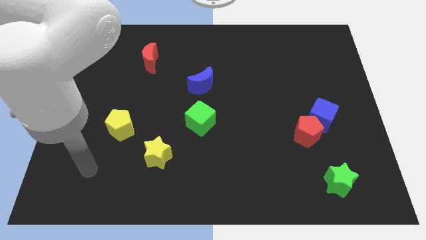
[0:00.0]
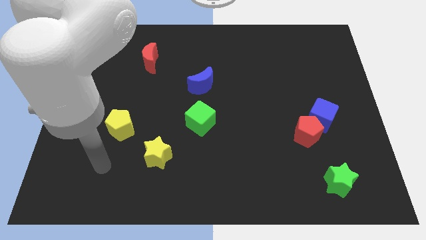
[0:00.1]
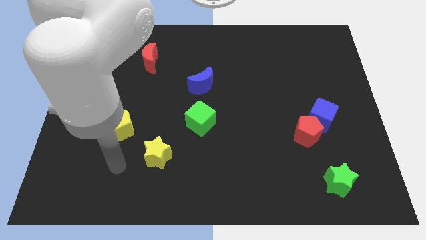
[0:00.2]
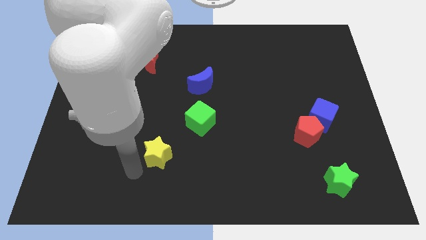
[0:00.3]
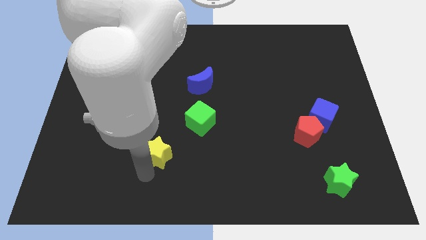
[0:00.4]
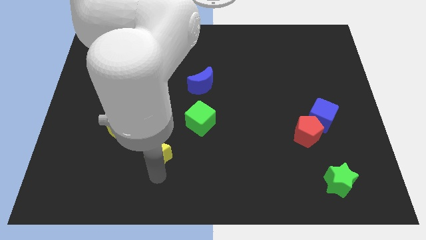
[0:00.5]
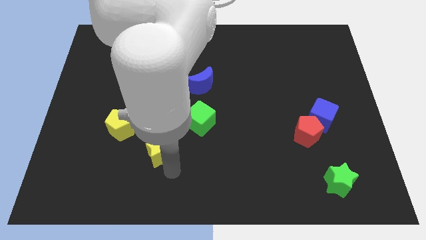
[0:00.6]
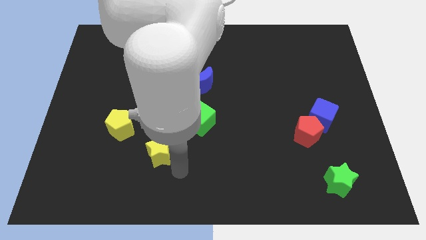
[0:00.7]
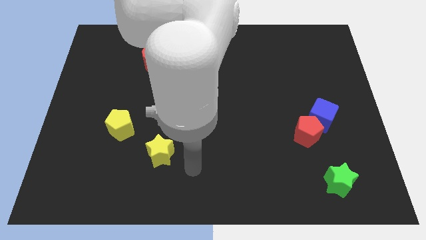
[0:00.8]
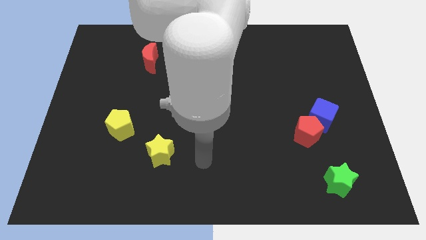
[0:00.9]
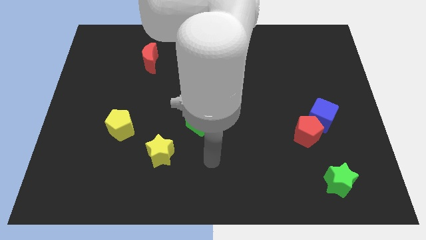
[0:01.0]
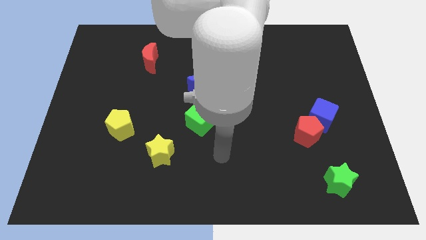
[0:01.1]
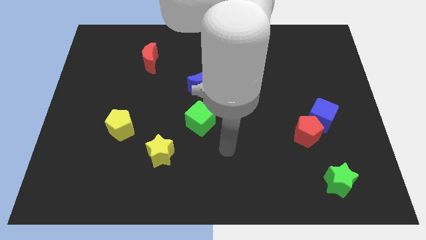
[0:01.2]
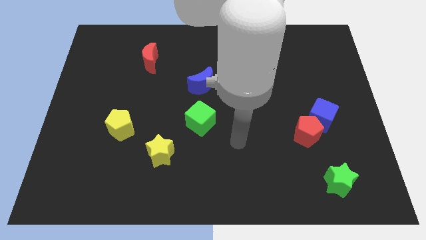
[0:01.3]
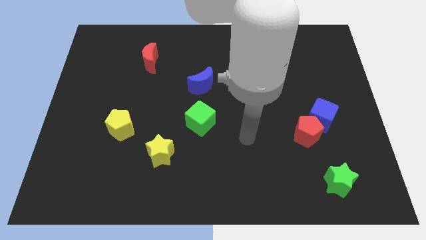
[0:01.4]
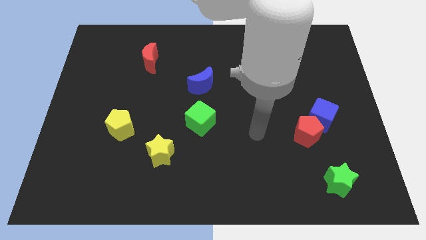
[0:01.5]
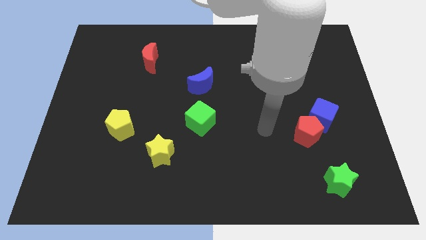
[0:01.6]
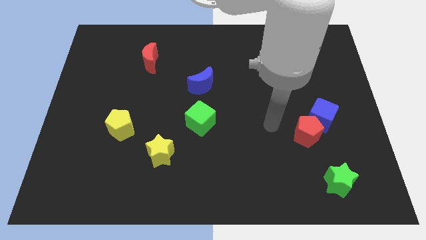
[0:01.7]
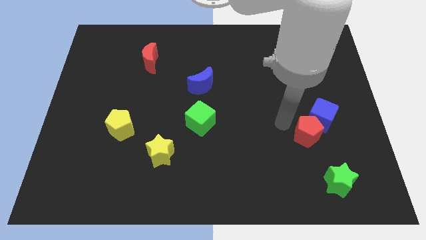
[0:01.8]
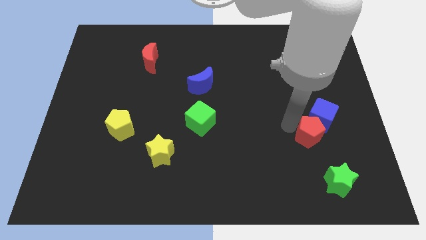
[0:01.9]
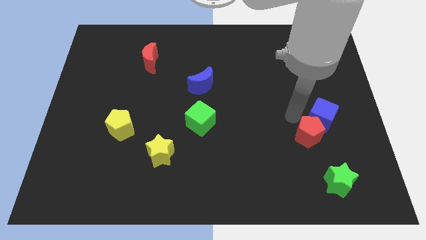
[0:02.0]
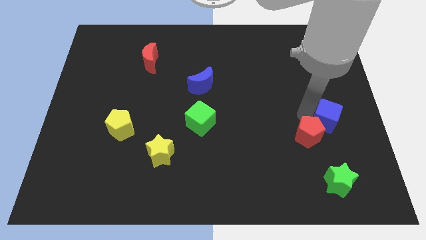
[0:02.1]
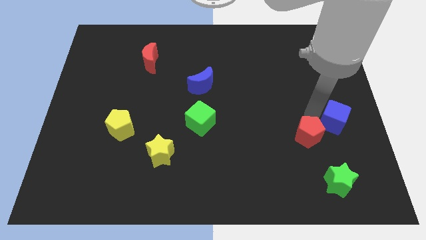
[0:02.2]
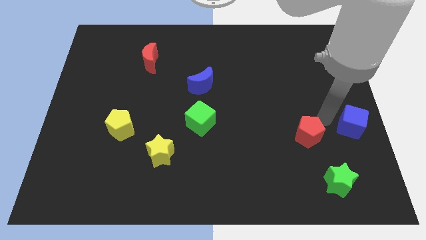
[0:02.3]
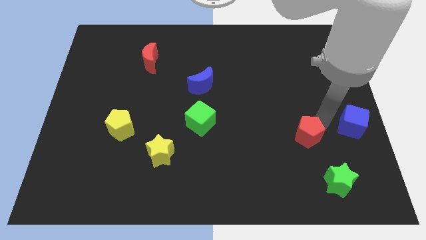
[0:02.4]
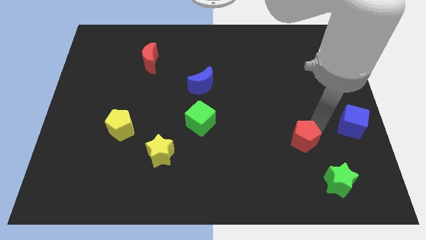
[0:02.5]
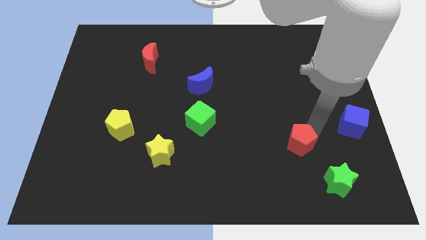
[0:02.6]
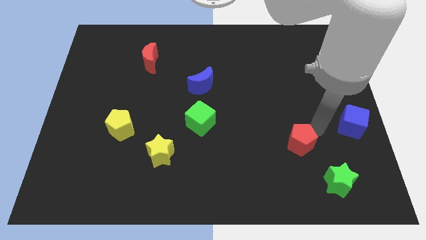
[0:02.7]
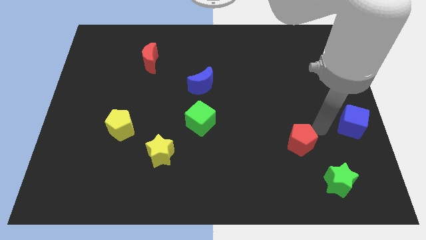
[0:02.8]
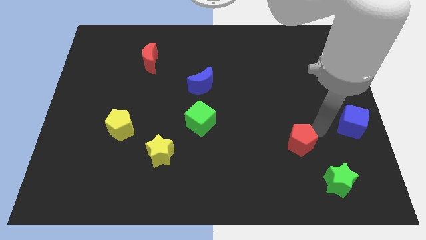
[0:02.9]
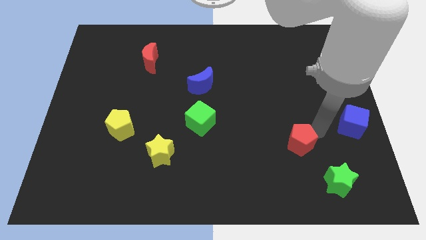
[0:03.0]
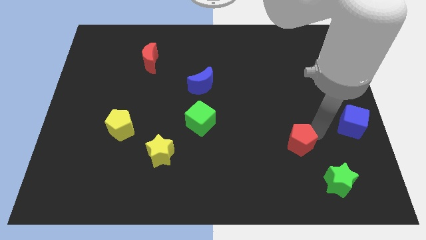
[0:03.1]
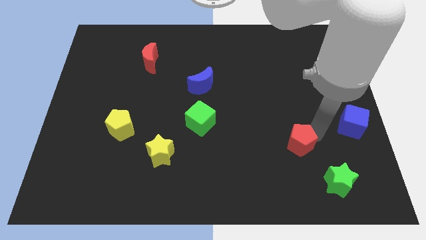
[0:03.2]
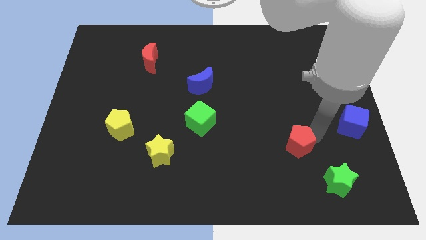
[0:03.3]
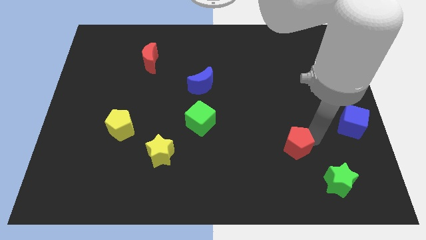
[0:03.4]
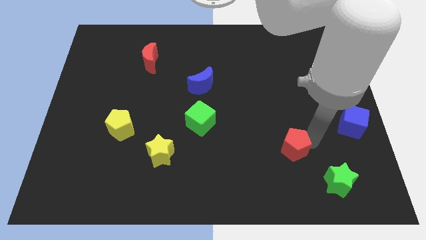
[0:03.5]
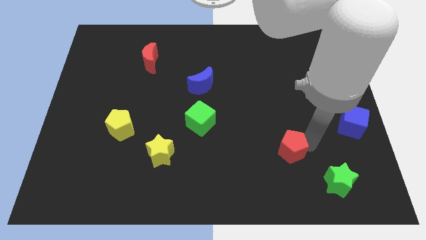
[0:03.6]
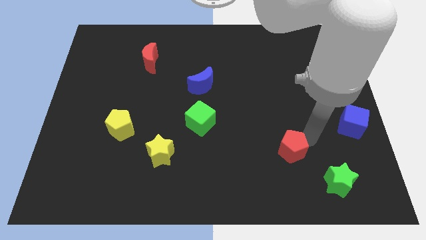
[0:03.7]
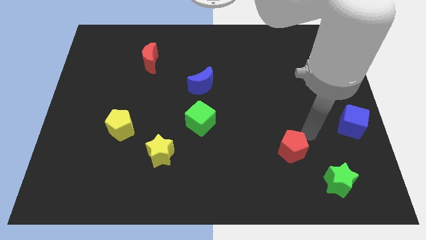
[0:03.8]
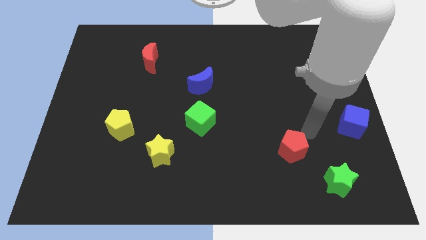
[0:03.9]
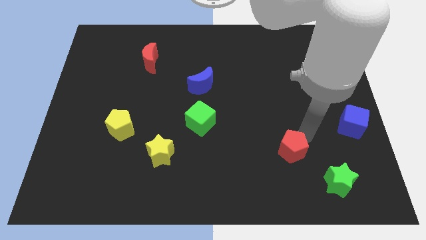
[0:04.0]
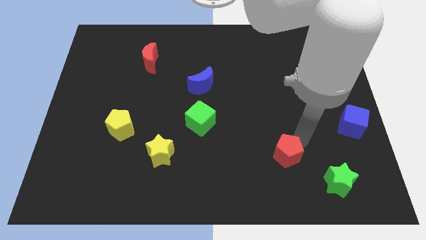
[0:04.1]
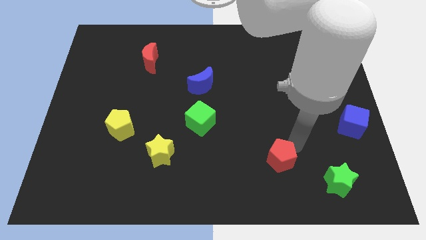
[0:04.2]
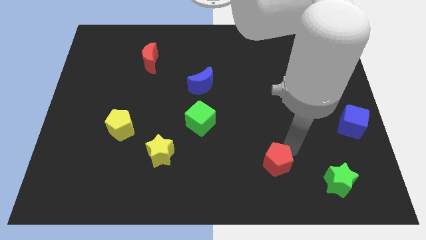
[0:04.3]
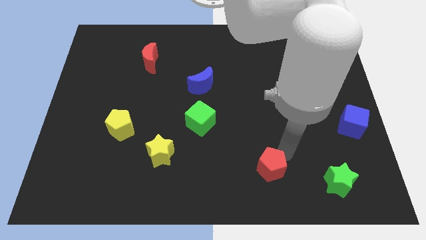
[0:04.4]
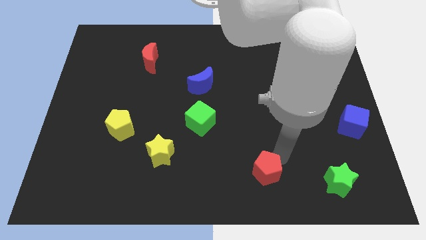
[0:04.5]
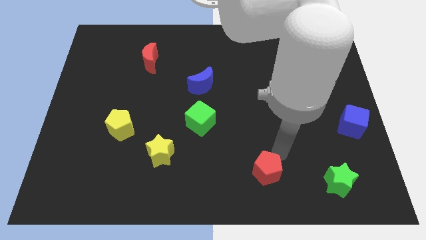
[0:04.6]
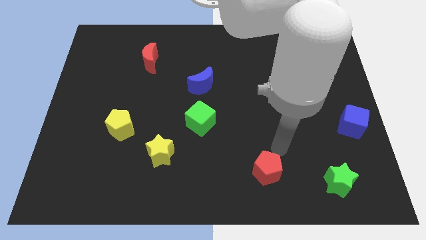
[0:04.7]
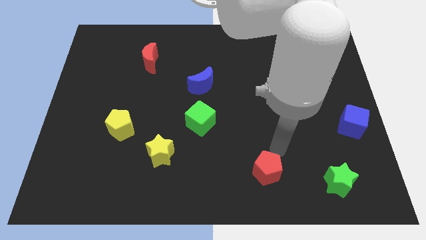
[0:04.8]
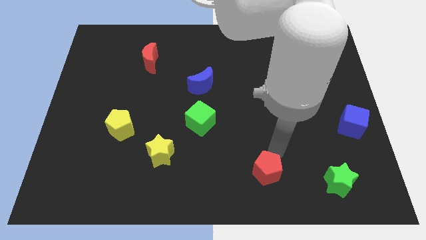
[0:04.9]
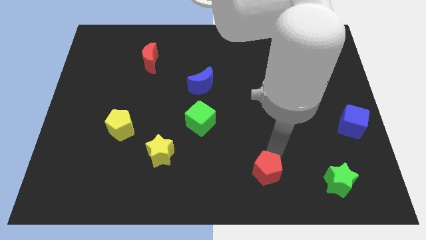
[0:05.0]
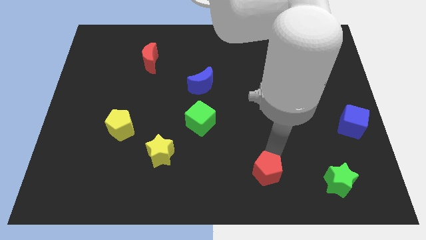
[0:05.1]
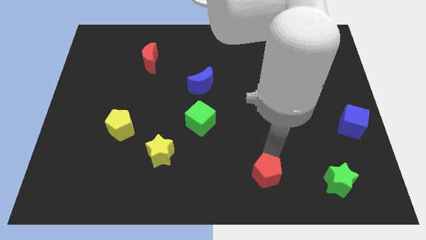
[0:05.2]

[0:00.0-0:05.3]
slide the red pentagon to the bottom side

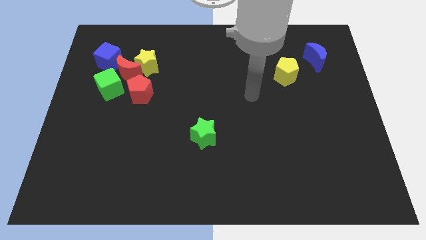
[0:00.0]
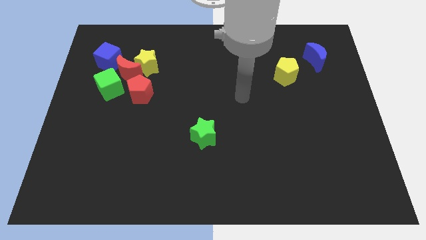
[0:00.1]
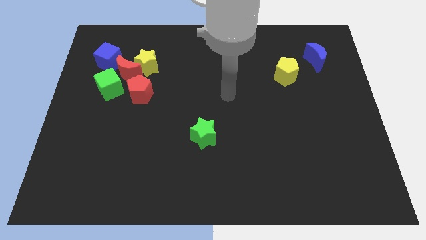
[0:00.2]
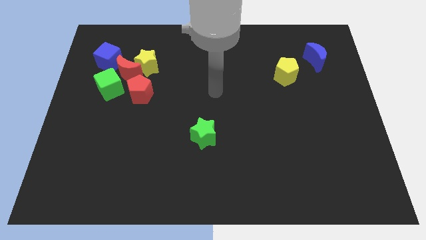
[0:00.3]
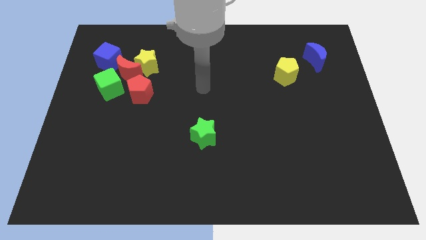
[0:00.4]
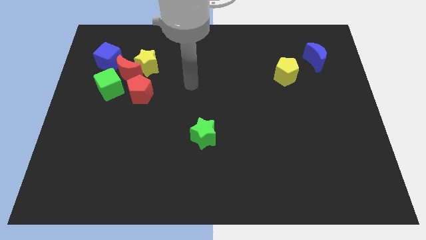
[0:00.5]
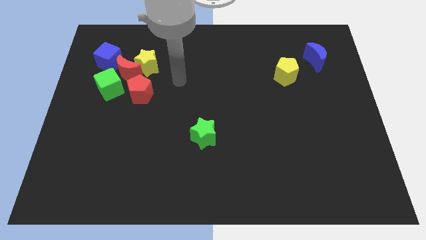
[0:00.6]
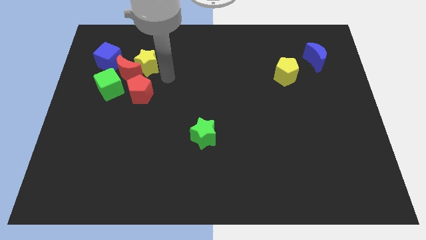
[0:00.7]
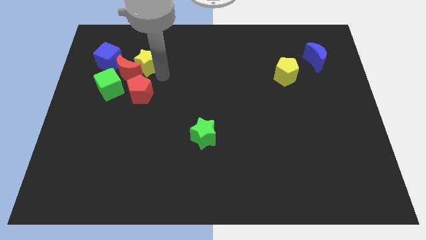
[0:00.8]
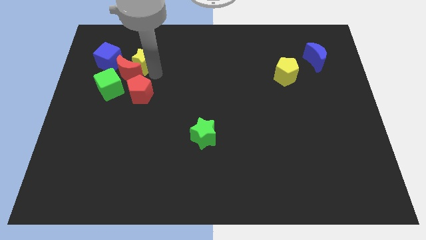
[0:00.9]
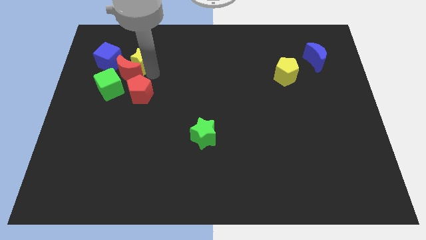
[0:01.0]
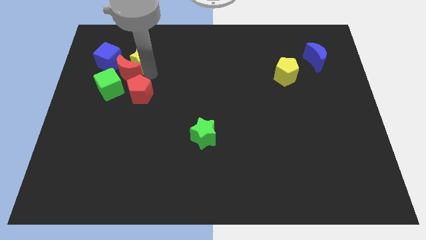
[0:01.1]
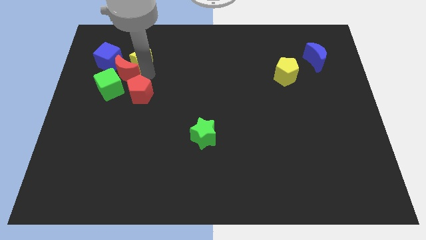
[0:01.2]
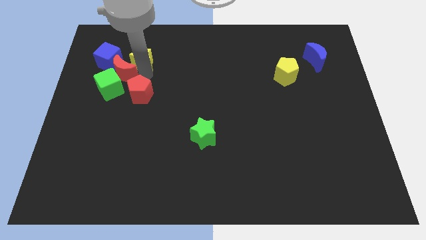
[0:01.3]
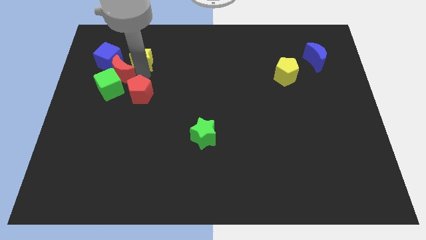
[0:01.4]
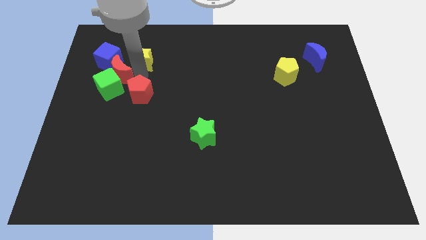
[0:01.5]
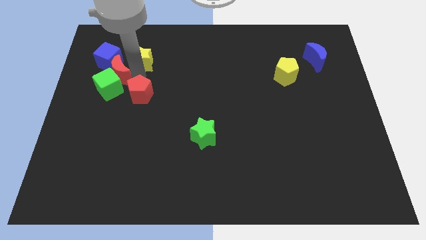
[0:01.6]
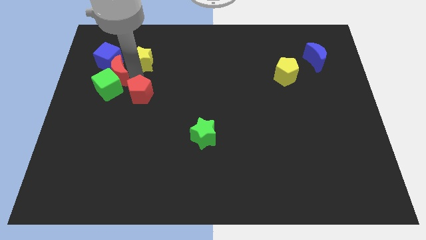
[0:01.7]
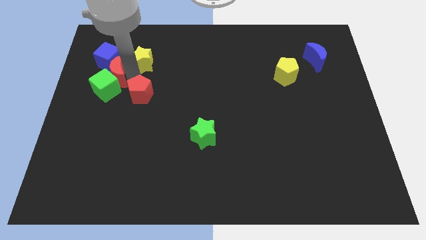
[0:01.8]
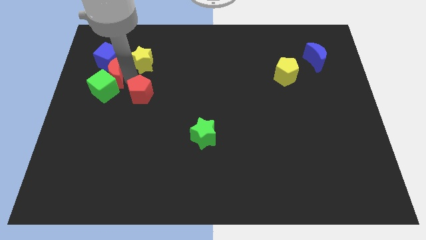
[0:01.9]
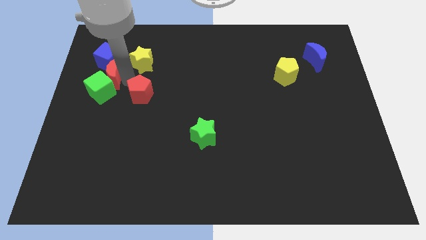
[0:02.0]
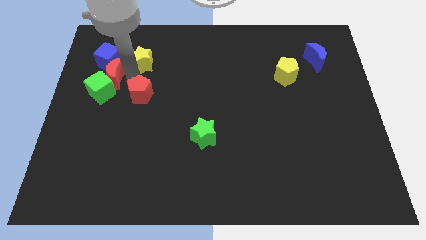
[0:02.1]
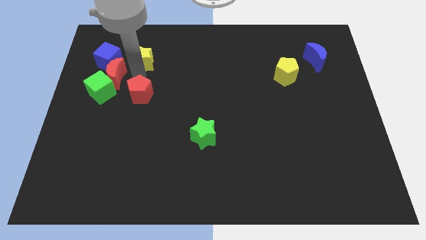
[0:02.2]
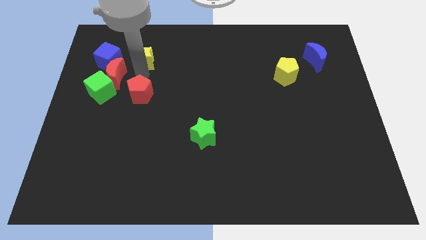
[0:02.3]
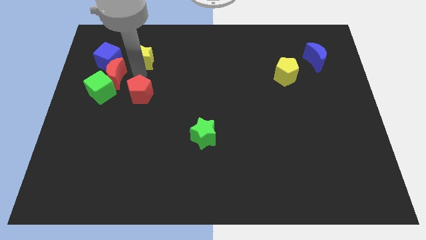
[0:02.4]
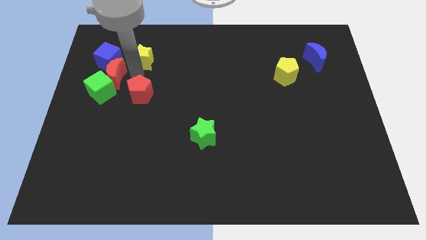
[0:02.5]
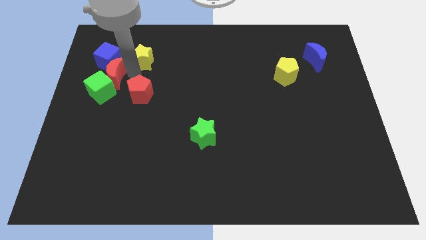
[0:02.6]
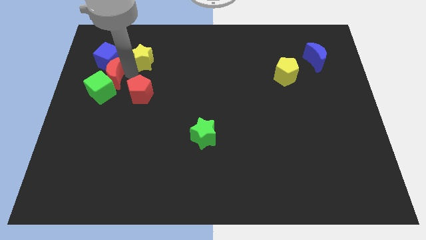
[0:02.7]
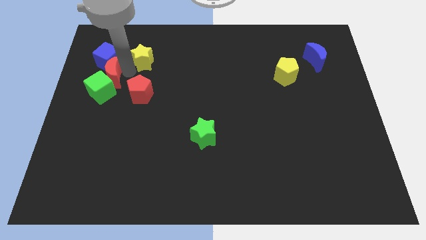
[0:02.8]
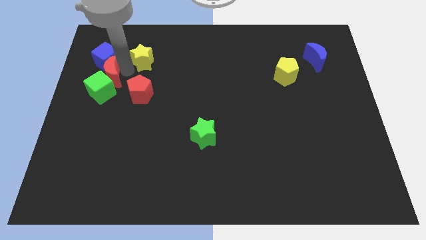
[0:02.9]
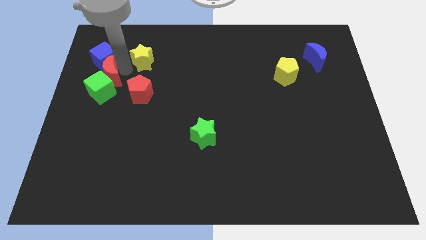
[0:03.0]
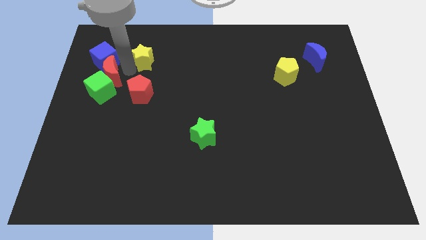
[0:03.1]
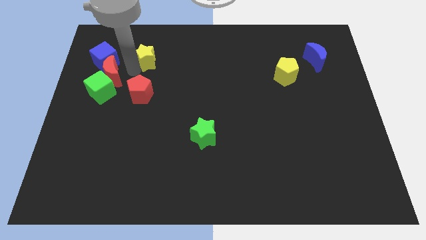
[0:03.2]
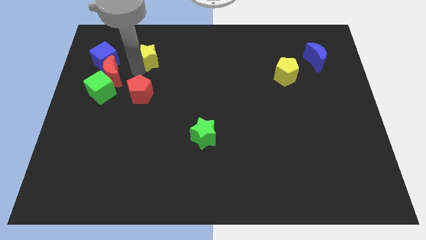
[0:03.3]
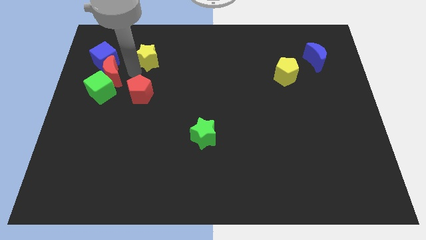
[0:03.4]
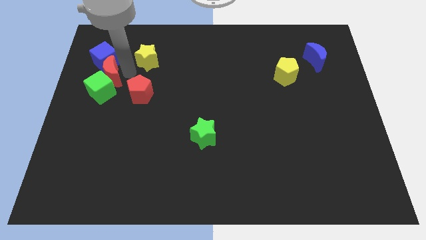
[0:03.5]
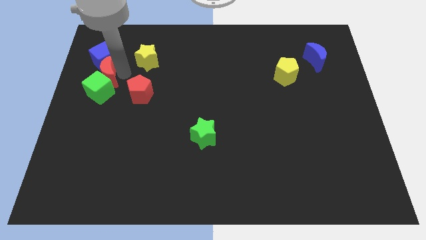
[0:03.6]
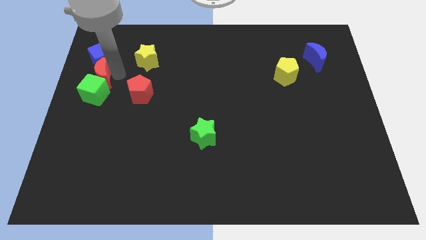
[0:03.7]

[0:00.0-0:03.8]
put the red moon to the left side of the board
